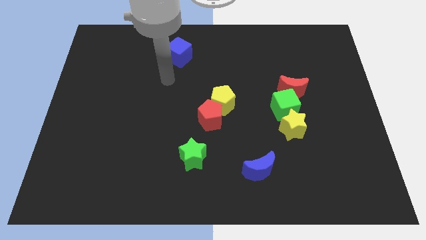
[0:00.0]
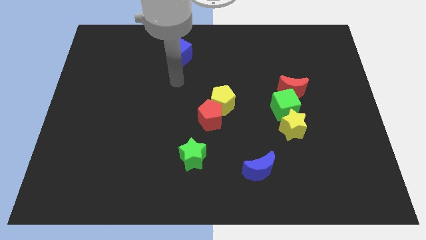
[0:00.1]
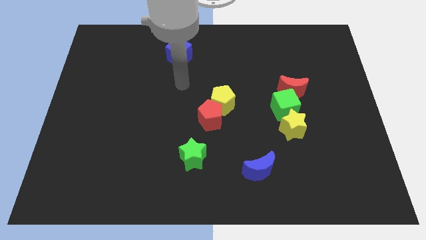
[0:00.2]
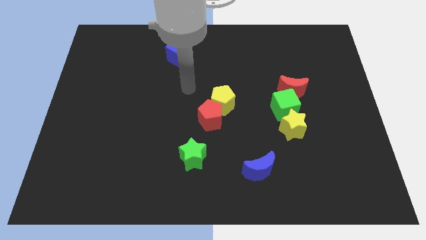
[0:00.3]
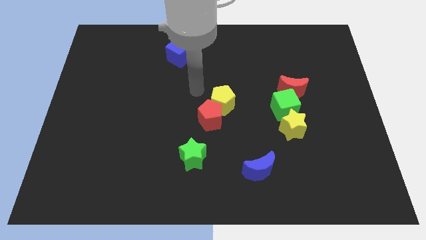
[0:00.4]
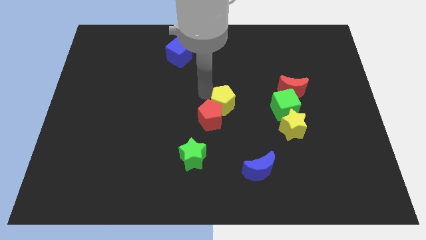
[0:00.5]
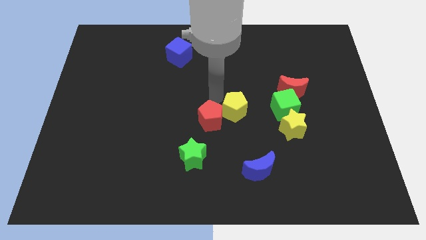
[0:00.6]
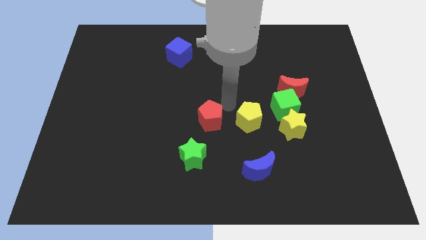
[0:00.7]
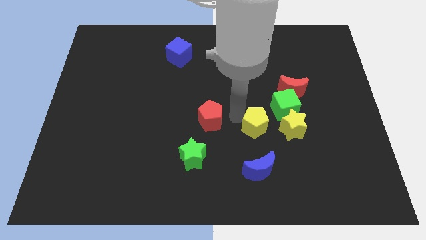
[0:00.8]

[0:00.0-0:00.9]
separate the red pentagon from the yellow pentagon

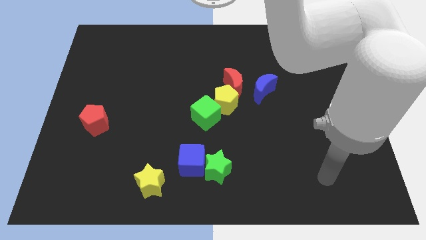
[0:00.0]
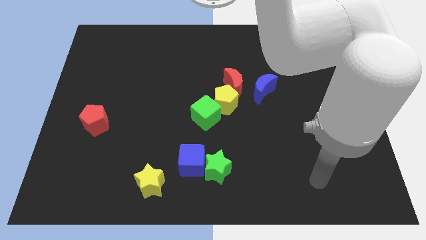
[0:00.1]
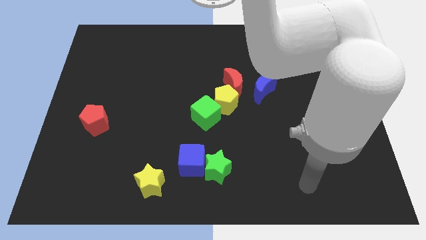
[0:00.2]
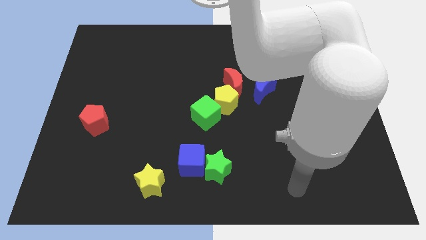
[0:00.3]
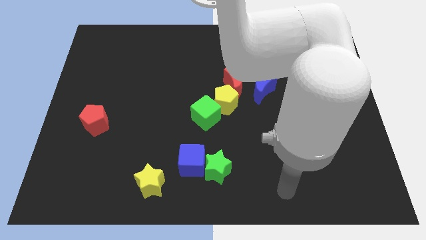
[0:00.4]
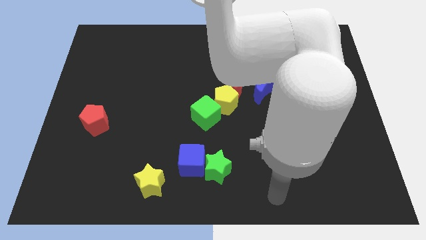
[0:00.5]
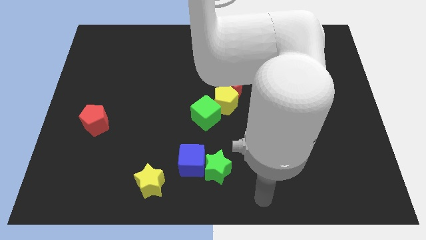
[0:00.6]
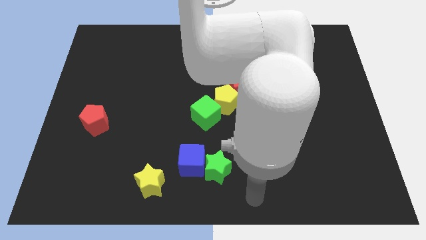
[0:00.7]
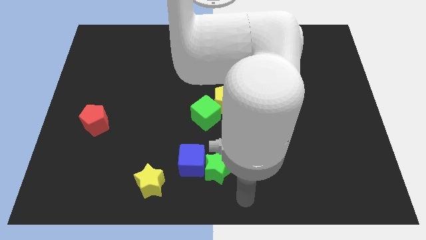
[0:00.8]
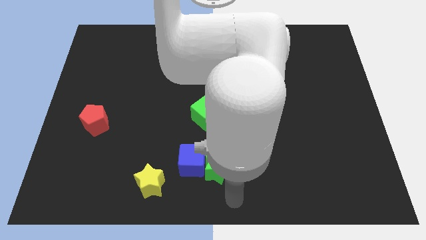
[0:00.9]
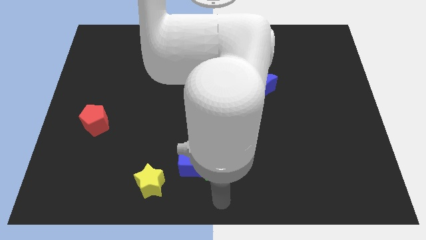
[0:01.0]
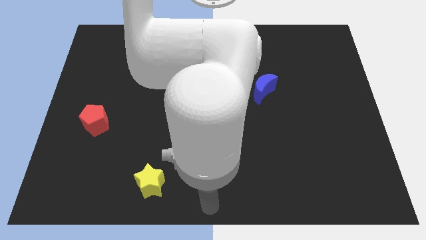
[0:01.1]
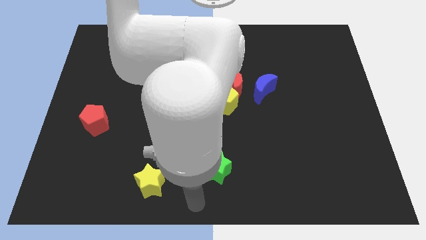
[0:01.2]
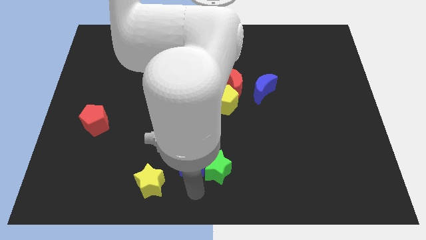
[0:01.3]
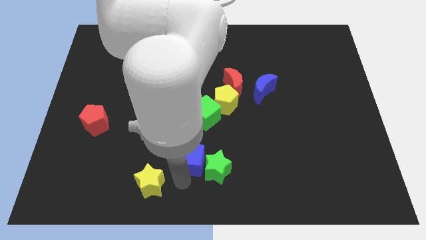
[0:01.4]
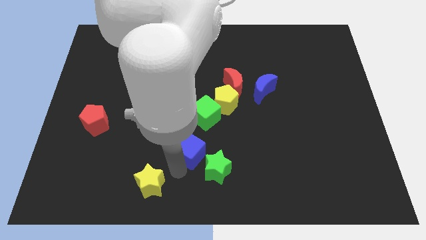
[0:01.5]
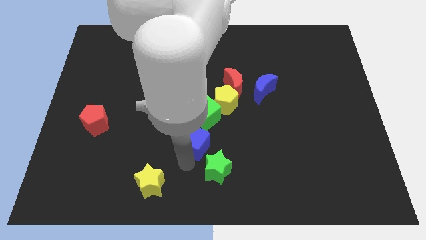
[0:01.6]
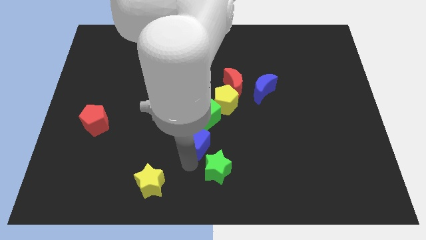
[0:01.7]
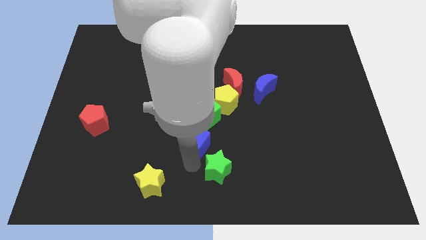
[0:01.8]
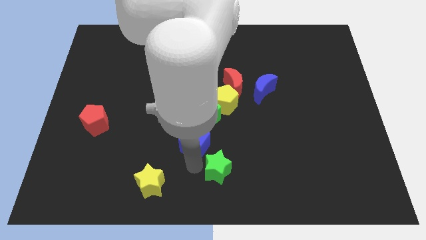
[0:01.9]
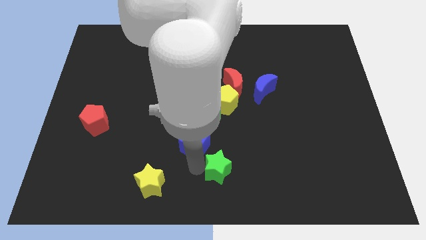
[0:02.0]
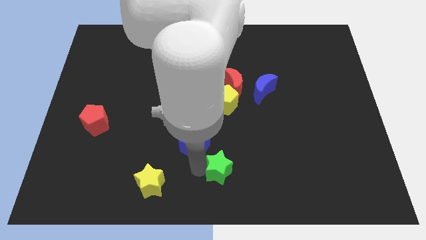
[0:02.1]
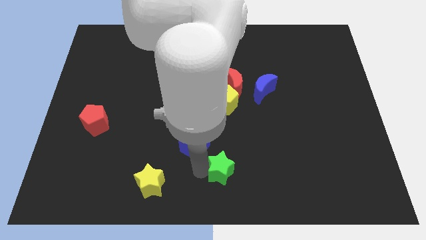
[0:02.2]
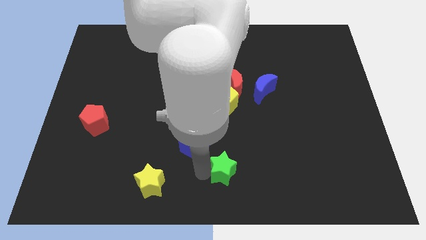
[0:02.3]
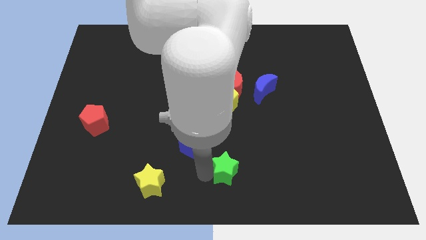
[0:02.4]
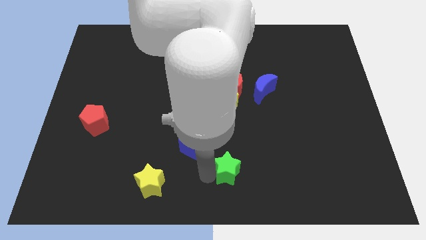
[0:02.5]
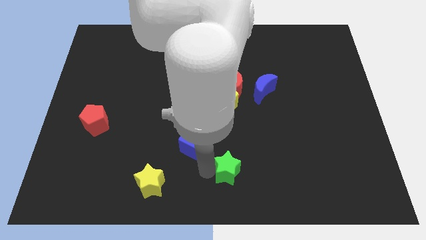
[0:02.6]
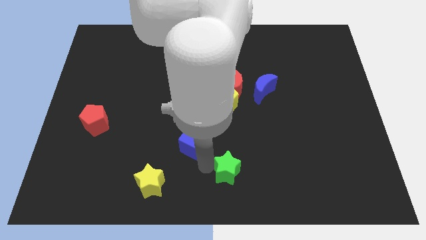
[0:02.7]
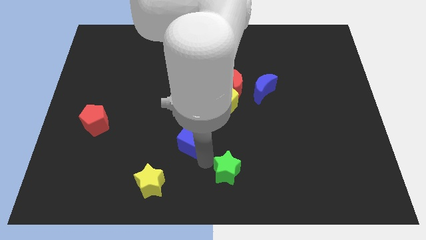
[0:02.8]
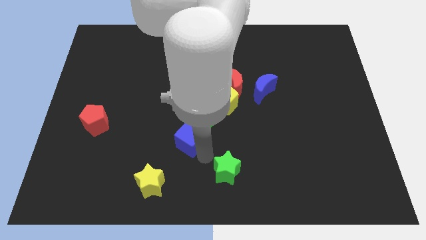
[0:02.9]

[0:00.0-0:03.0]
pull the green star apart from the blue cube

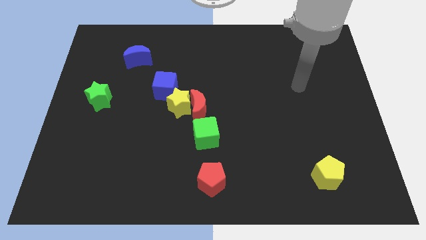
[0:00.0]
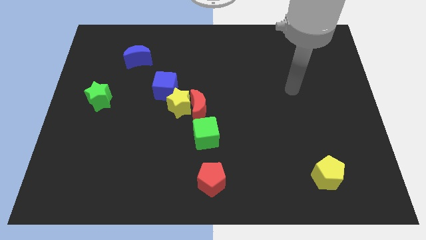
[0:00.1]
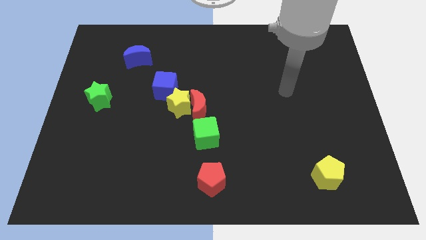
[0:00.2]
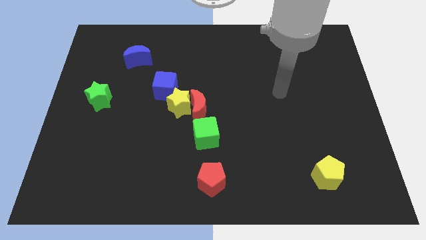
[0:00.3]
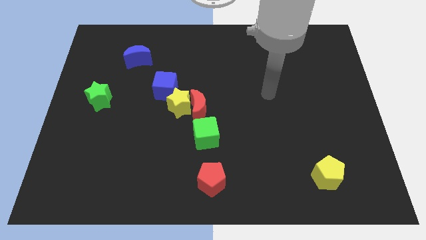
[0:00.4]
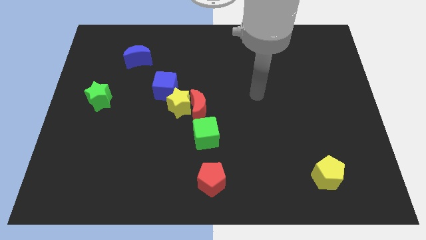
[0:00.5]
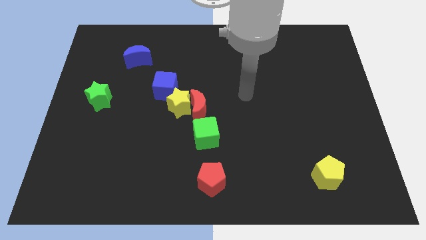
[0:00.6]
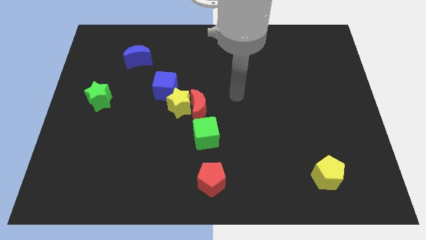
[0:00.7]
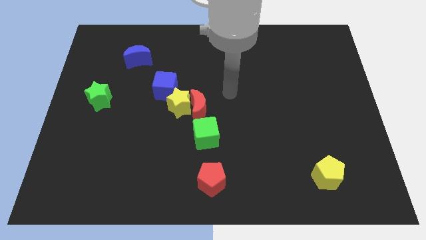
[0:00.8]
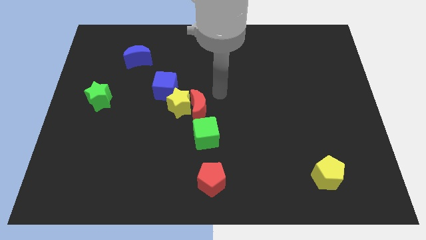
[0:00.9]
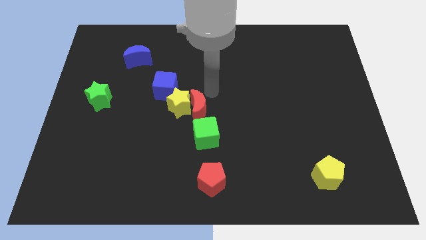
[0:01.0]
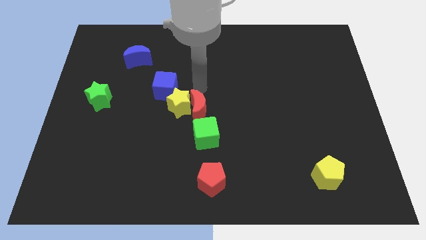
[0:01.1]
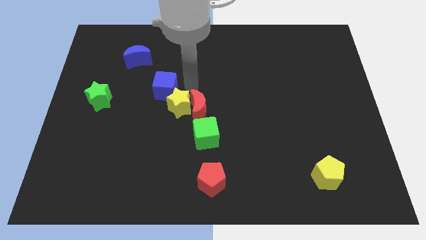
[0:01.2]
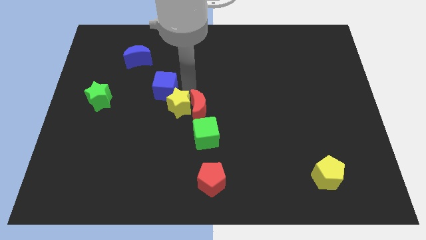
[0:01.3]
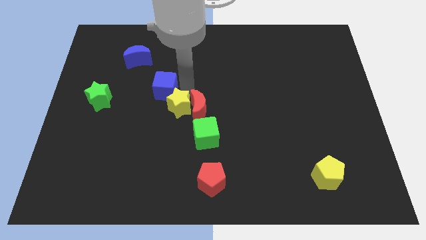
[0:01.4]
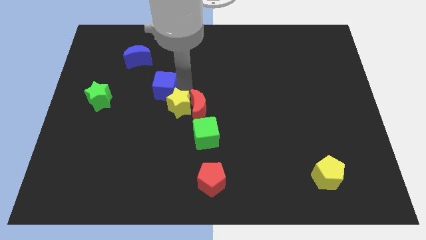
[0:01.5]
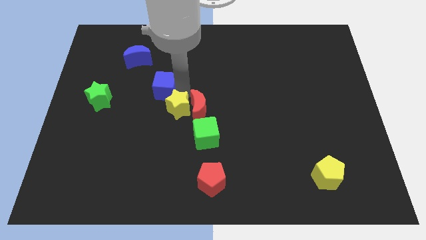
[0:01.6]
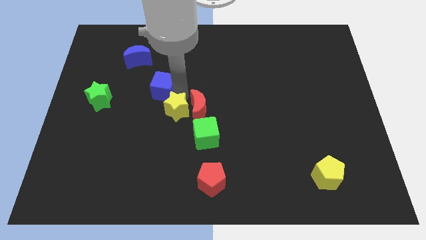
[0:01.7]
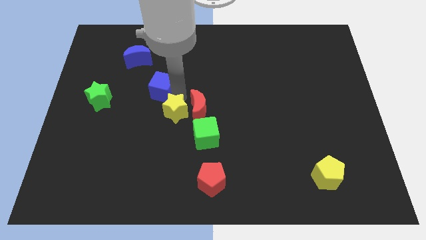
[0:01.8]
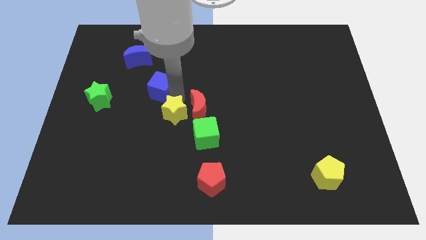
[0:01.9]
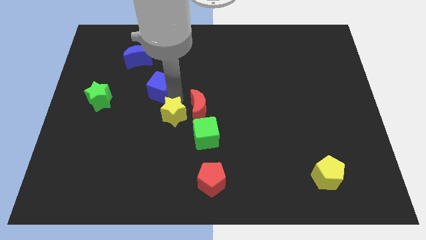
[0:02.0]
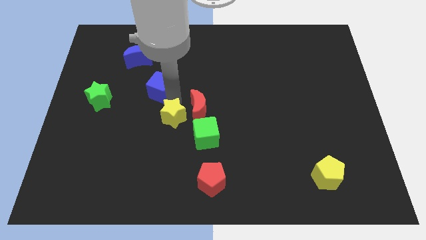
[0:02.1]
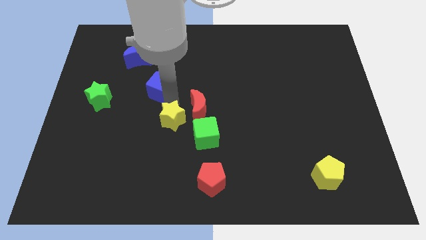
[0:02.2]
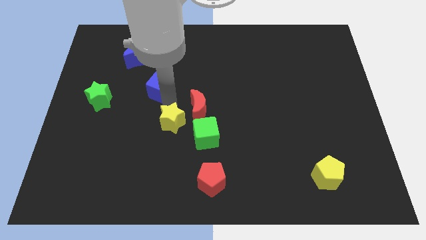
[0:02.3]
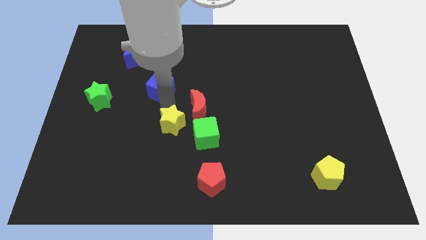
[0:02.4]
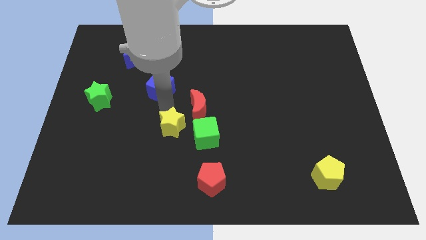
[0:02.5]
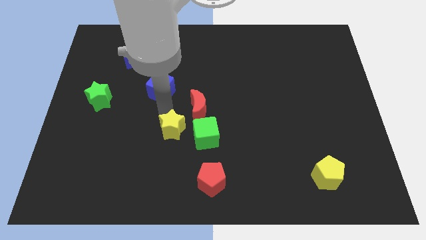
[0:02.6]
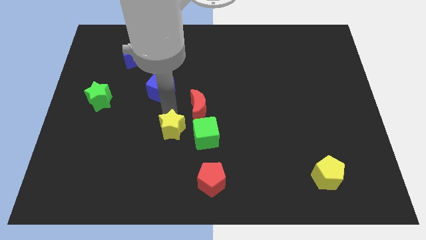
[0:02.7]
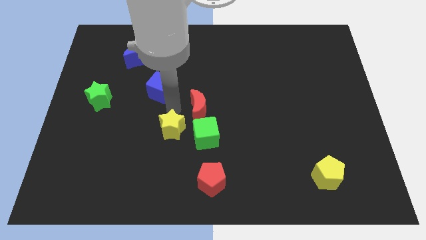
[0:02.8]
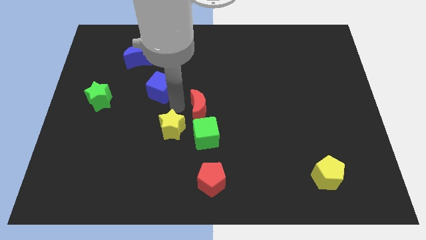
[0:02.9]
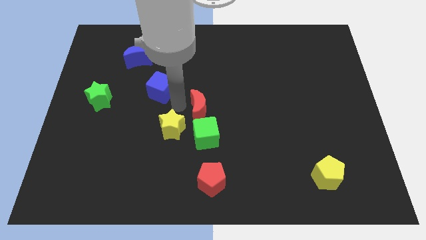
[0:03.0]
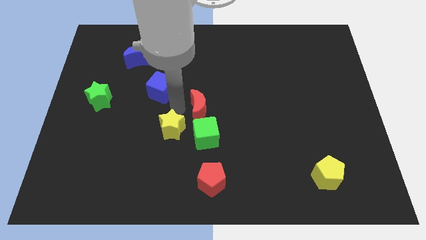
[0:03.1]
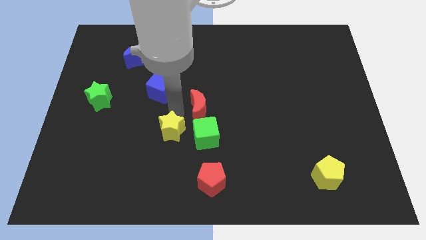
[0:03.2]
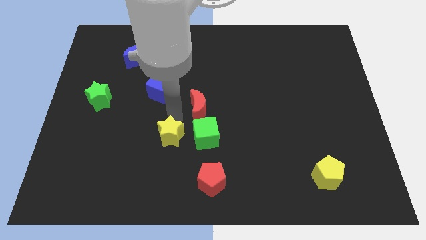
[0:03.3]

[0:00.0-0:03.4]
pull the yellow star apart from the red moon and blue cube

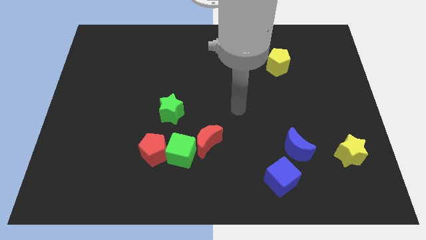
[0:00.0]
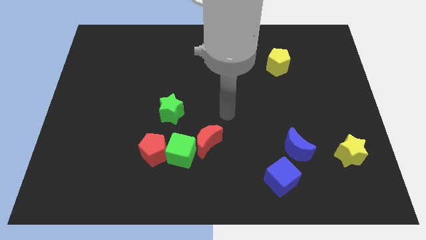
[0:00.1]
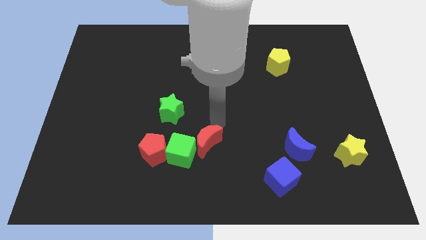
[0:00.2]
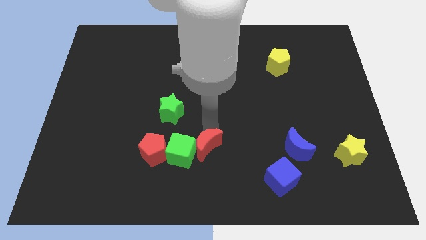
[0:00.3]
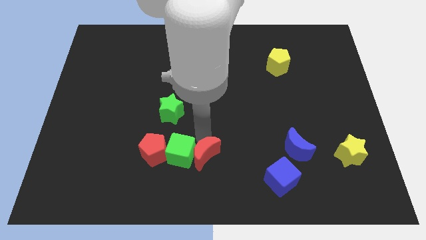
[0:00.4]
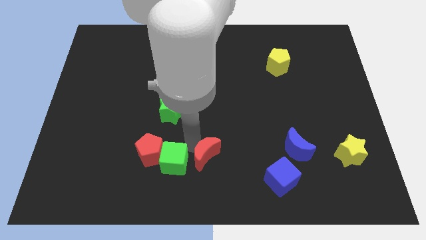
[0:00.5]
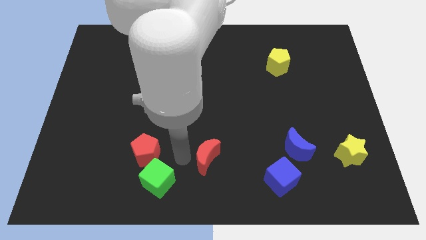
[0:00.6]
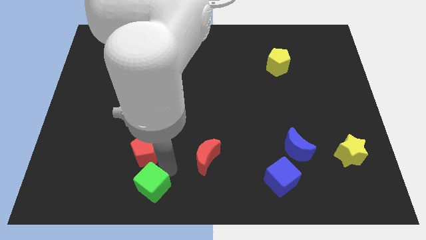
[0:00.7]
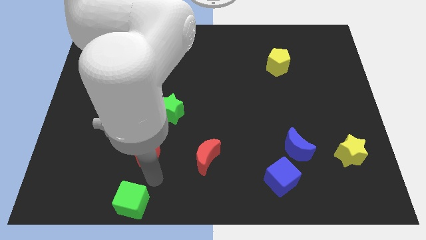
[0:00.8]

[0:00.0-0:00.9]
pull the red pentagon apart from the green cube

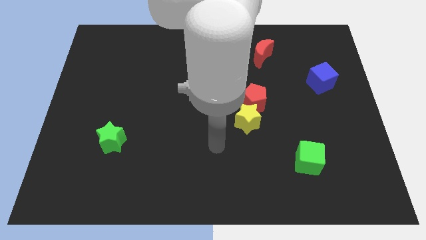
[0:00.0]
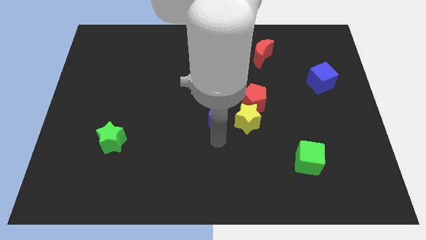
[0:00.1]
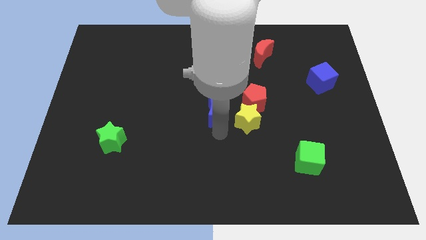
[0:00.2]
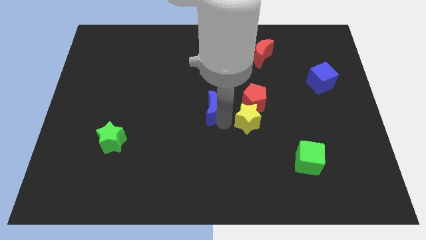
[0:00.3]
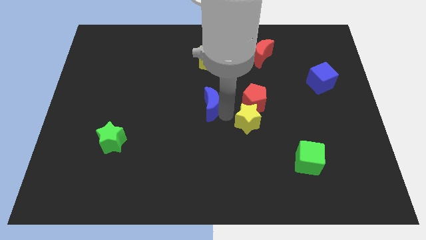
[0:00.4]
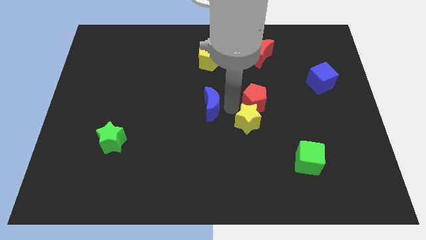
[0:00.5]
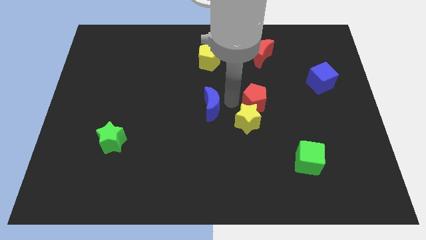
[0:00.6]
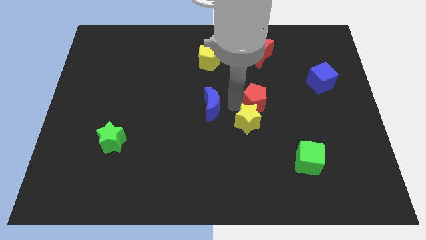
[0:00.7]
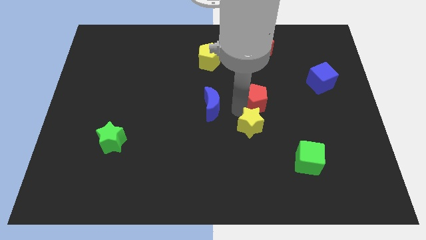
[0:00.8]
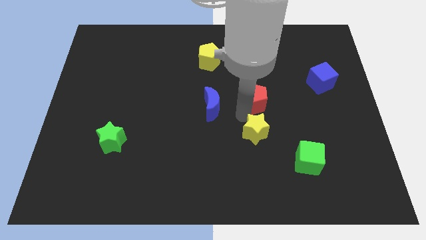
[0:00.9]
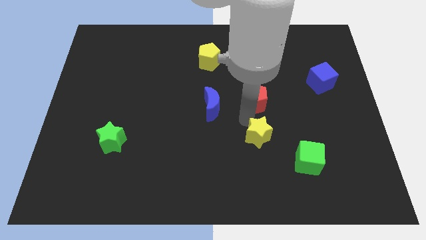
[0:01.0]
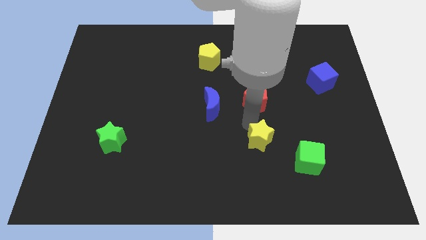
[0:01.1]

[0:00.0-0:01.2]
move the yellow star away from the red pentagon and blue moon
